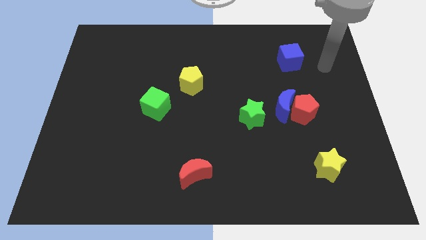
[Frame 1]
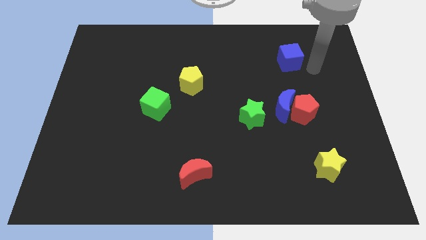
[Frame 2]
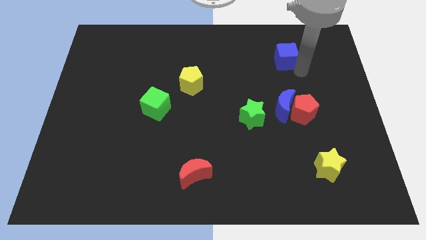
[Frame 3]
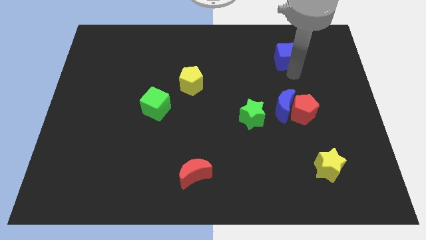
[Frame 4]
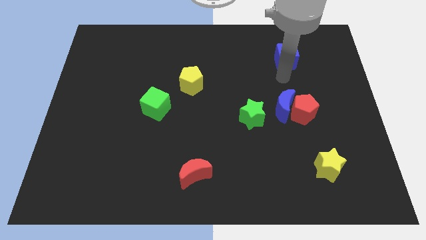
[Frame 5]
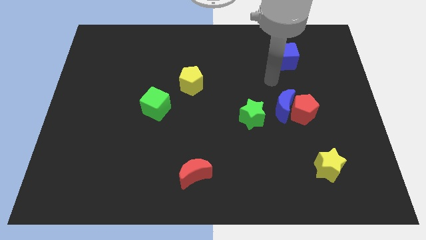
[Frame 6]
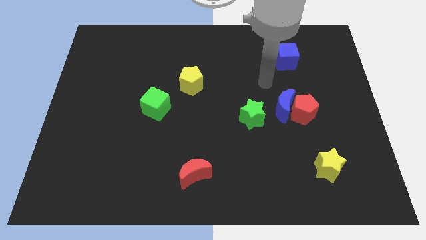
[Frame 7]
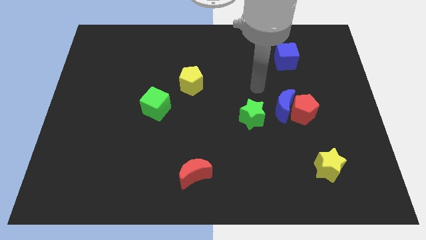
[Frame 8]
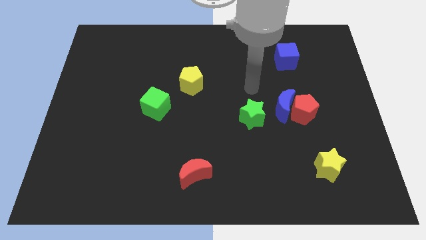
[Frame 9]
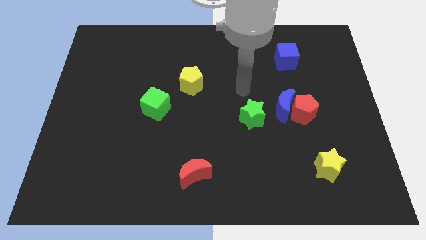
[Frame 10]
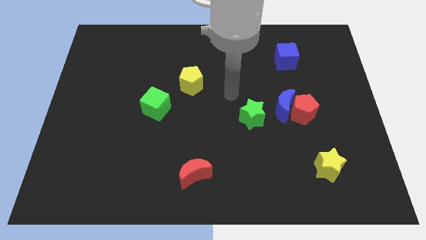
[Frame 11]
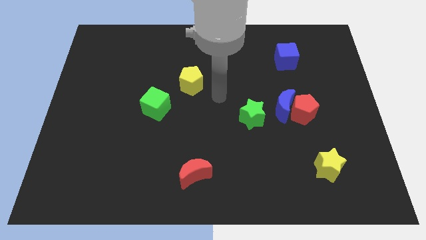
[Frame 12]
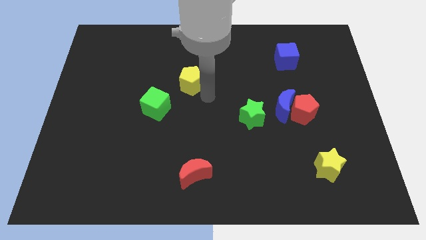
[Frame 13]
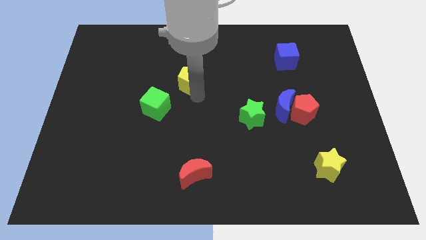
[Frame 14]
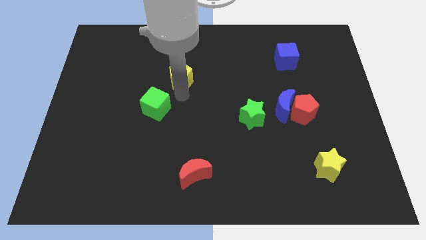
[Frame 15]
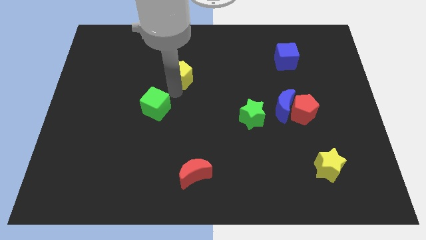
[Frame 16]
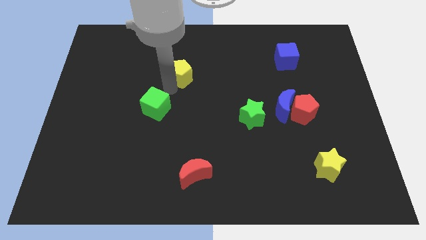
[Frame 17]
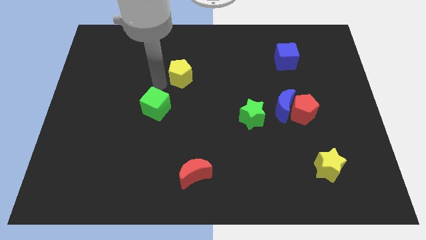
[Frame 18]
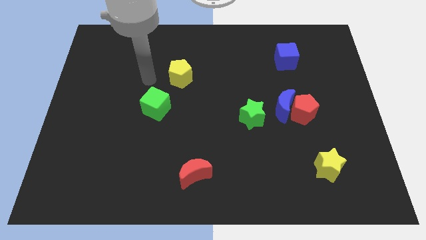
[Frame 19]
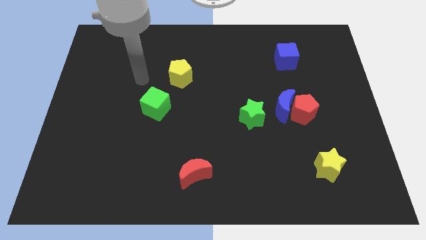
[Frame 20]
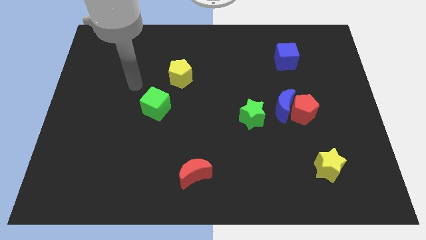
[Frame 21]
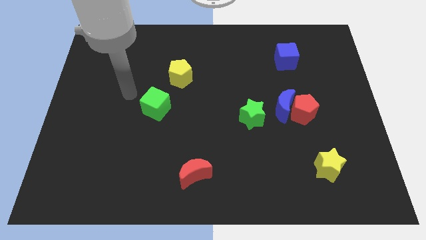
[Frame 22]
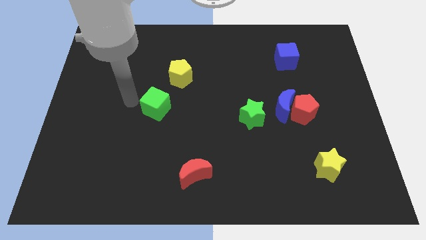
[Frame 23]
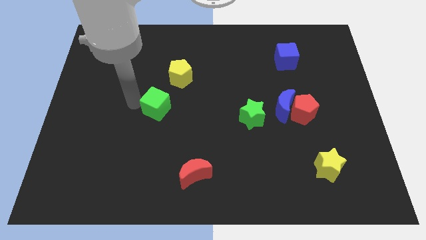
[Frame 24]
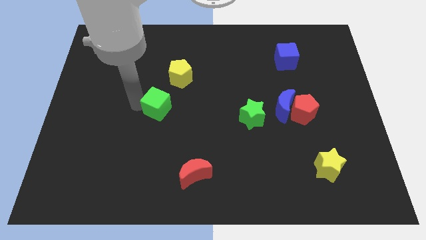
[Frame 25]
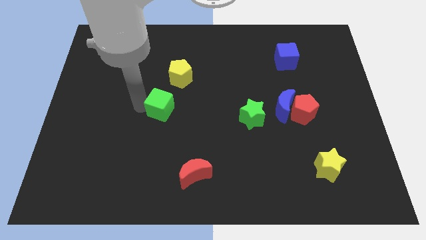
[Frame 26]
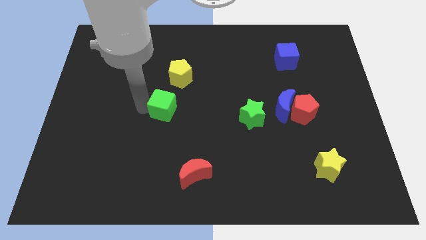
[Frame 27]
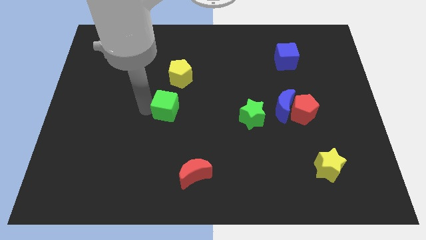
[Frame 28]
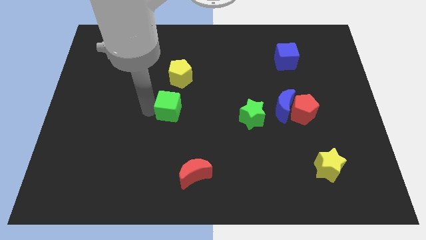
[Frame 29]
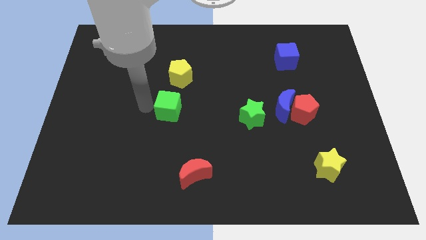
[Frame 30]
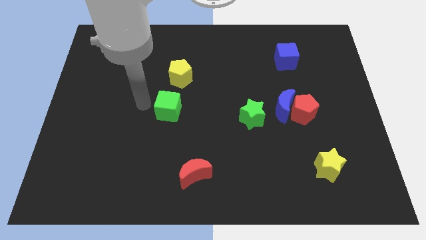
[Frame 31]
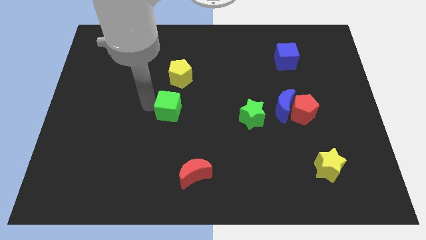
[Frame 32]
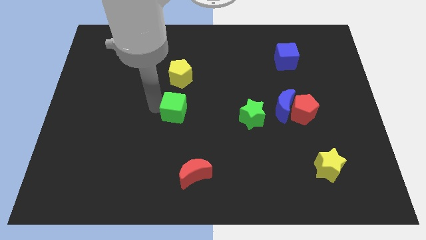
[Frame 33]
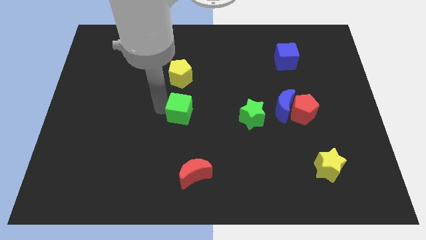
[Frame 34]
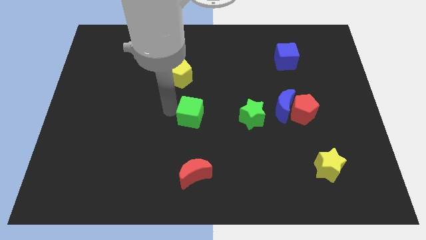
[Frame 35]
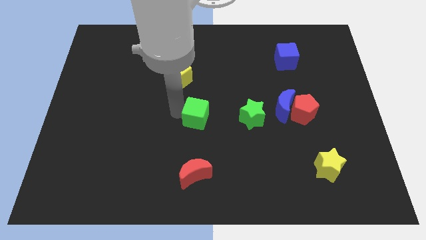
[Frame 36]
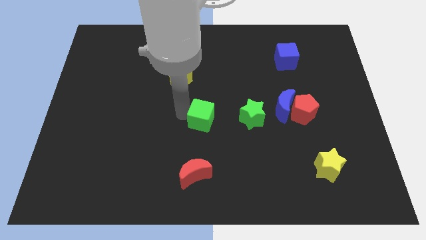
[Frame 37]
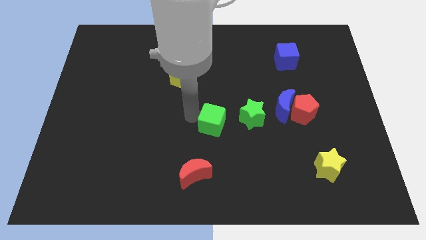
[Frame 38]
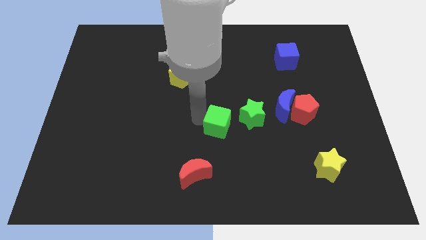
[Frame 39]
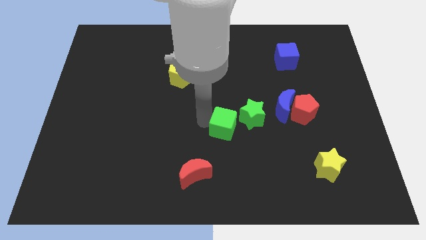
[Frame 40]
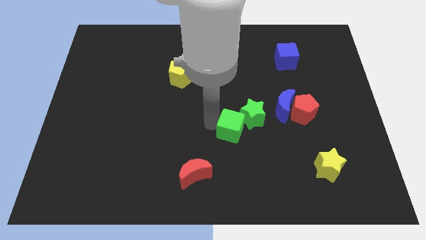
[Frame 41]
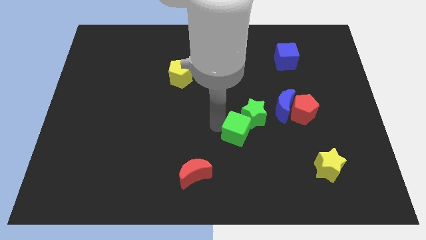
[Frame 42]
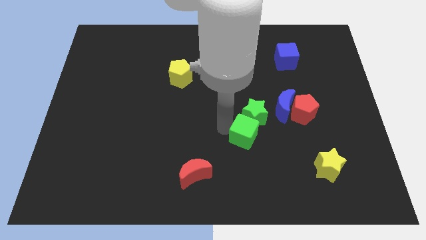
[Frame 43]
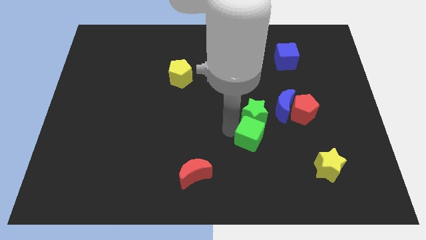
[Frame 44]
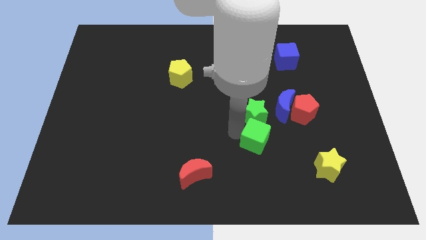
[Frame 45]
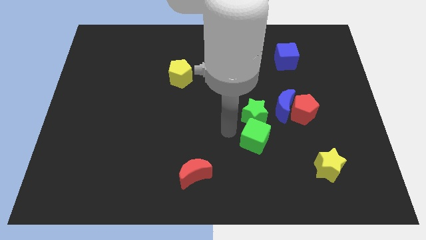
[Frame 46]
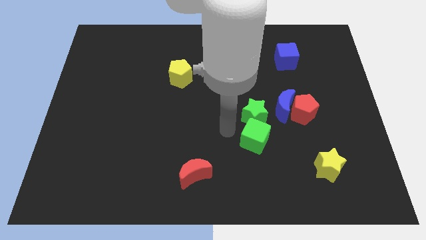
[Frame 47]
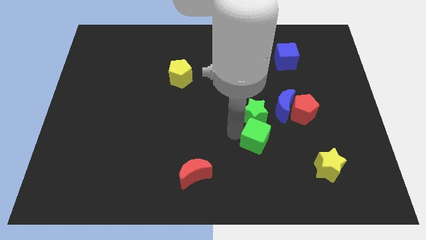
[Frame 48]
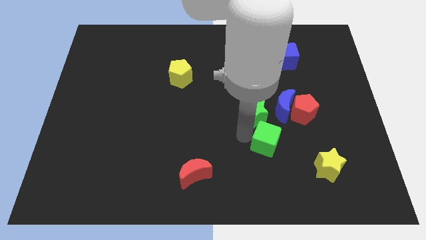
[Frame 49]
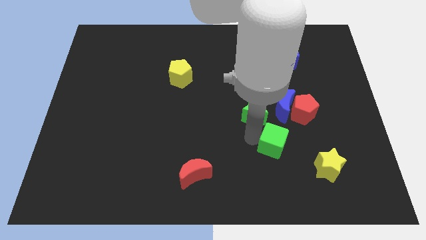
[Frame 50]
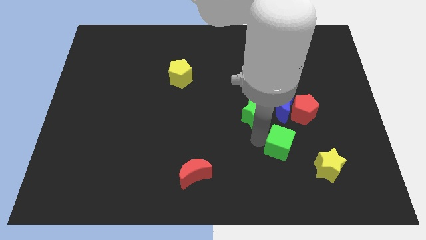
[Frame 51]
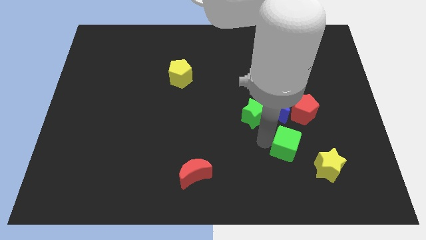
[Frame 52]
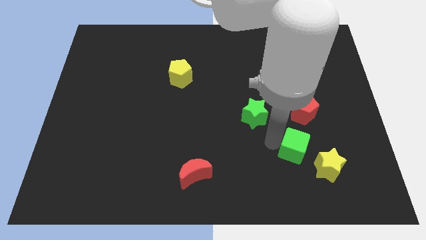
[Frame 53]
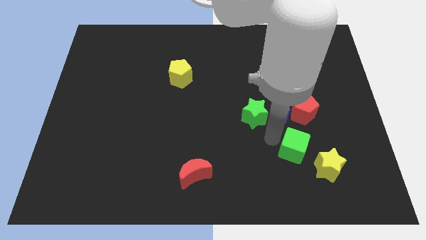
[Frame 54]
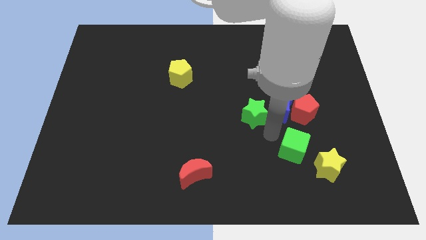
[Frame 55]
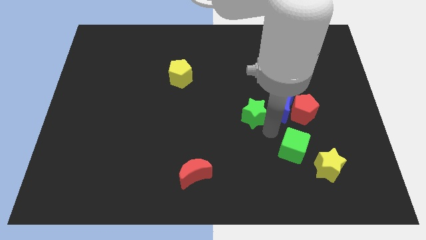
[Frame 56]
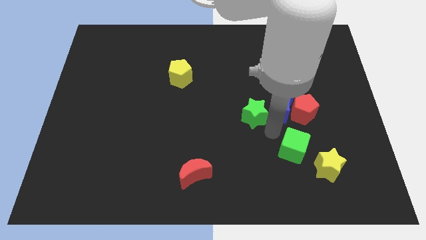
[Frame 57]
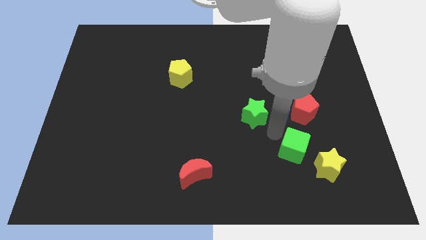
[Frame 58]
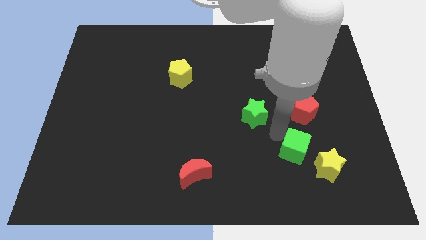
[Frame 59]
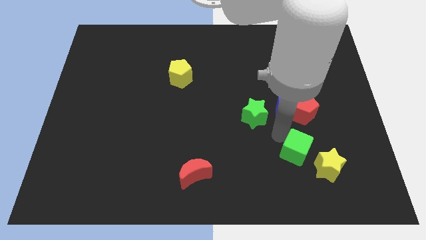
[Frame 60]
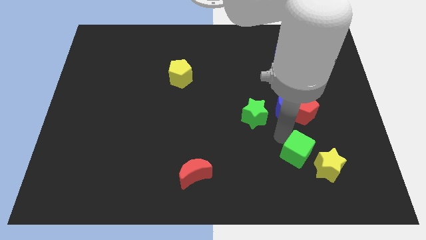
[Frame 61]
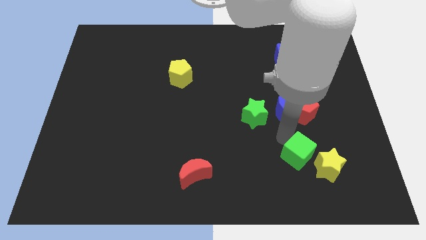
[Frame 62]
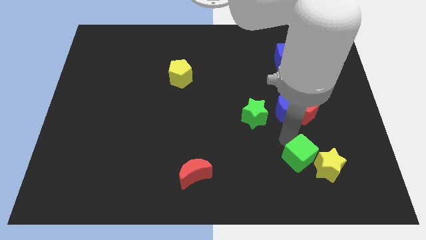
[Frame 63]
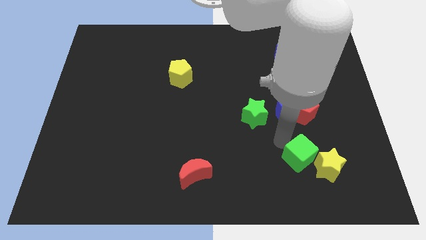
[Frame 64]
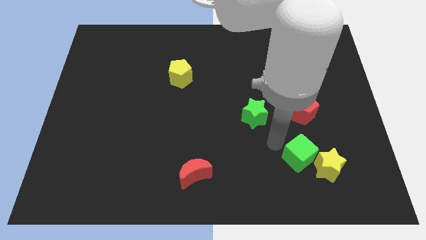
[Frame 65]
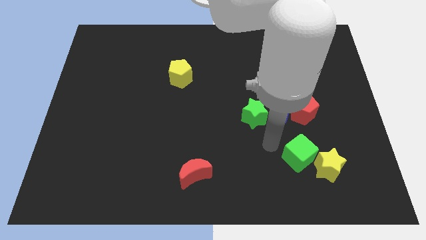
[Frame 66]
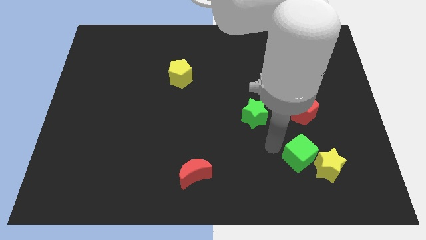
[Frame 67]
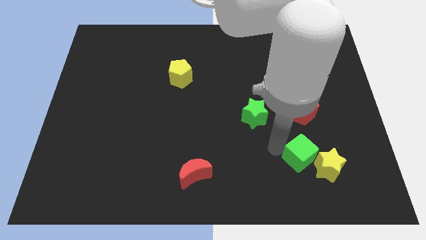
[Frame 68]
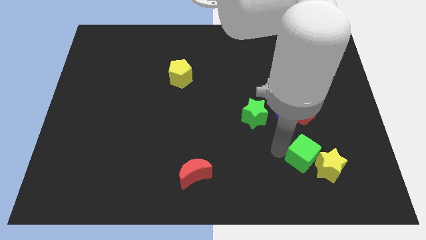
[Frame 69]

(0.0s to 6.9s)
push the green cube next to the yellow star

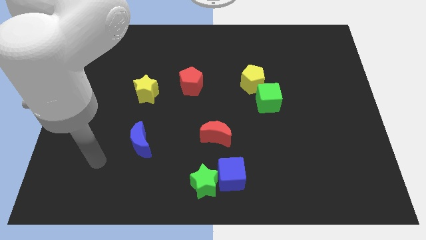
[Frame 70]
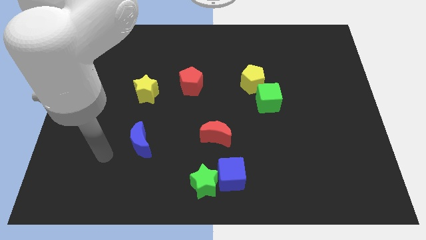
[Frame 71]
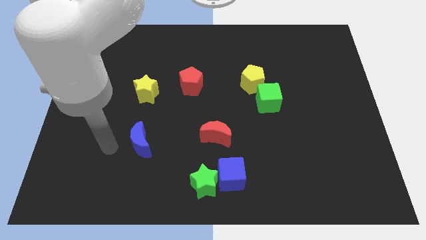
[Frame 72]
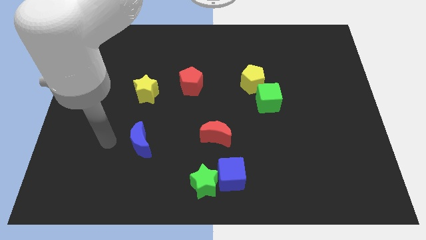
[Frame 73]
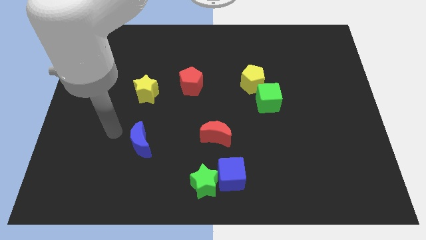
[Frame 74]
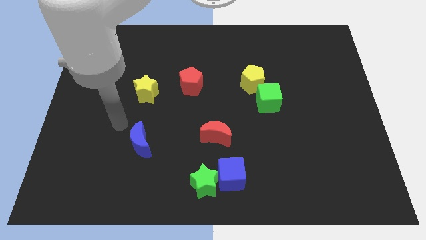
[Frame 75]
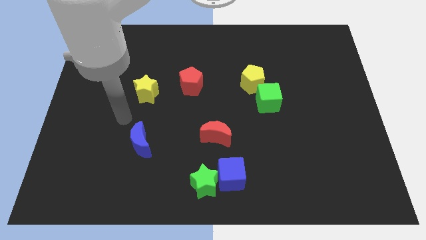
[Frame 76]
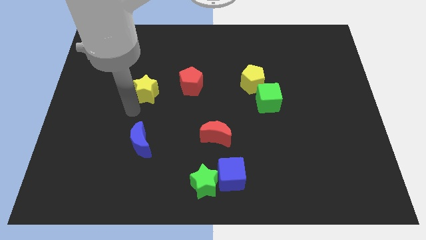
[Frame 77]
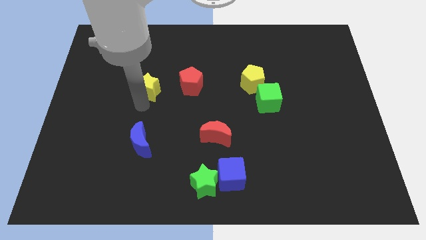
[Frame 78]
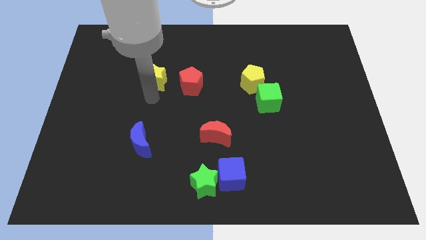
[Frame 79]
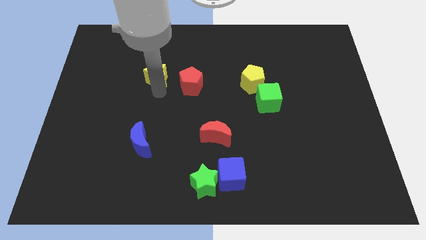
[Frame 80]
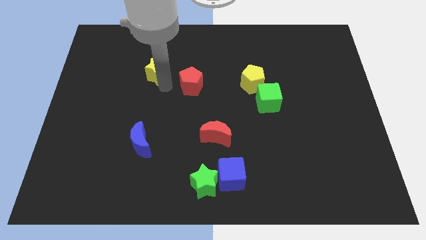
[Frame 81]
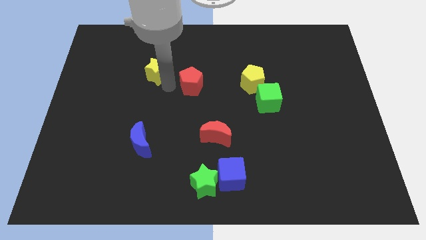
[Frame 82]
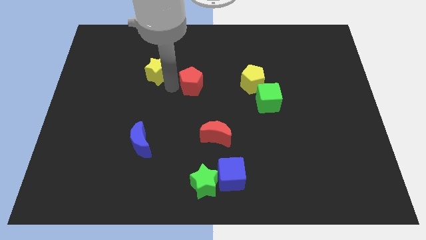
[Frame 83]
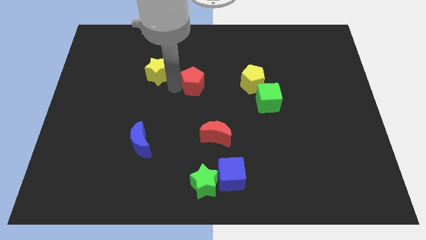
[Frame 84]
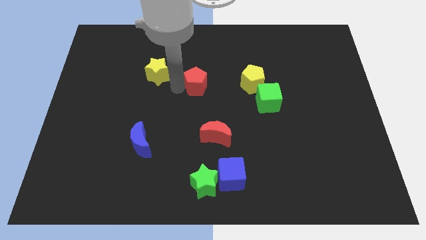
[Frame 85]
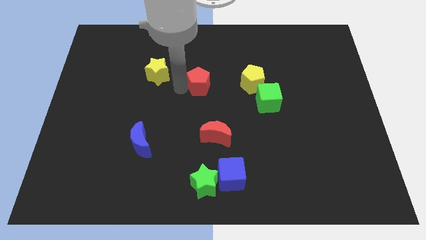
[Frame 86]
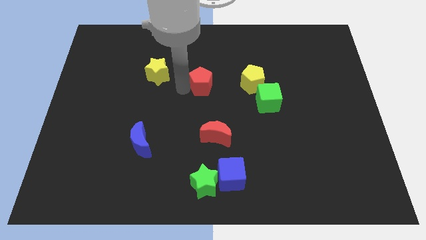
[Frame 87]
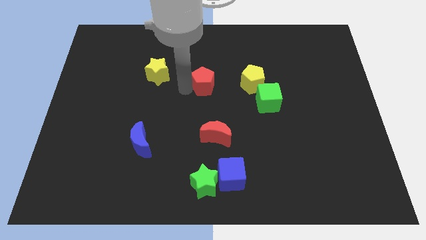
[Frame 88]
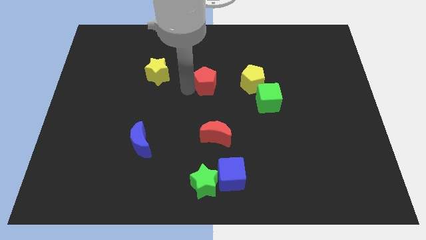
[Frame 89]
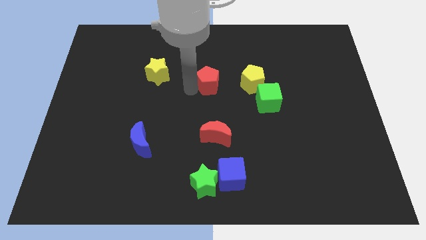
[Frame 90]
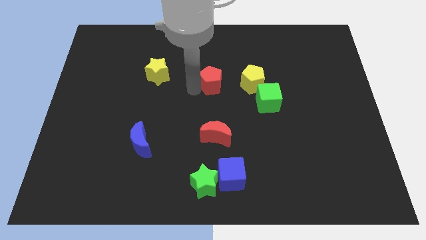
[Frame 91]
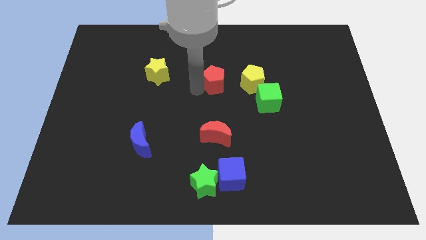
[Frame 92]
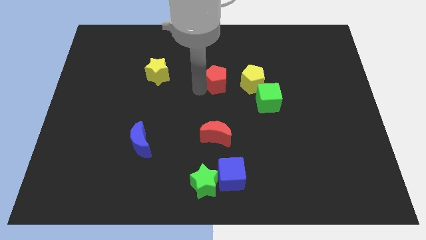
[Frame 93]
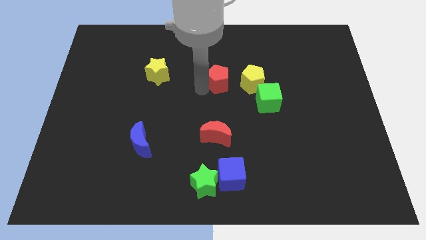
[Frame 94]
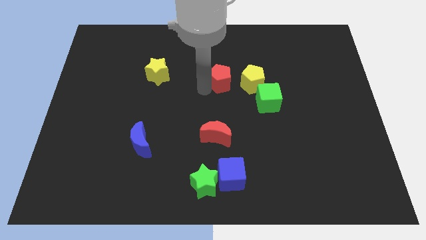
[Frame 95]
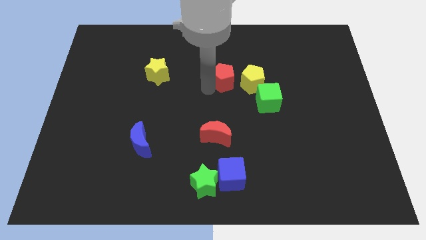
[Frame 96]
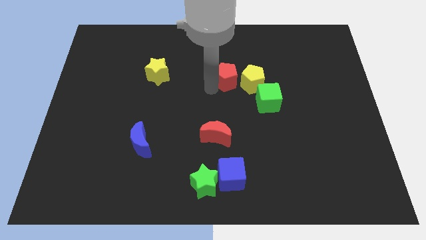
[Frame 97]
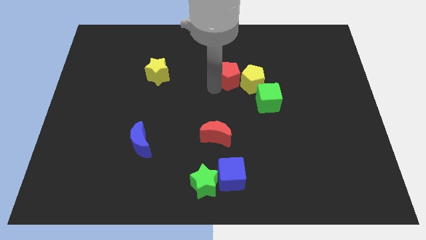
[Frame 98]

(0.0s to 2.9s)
push the red pentagon towards the yellow pentagon
